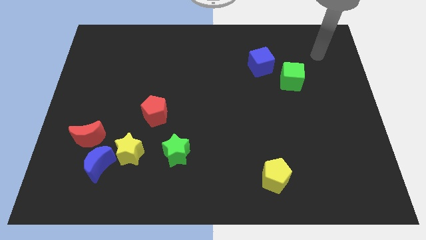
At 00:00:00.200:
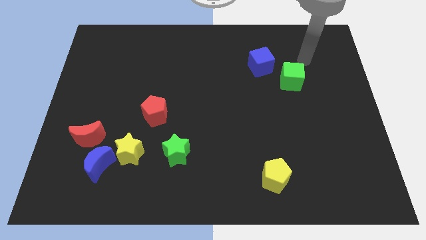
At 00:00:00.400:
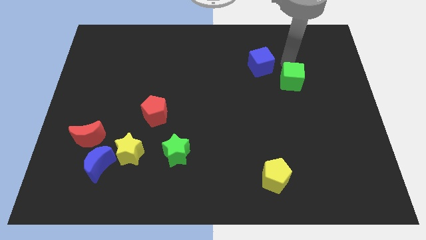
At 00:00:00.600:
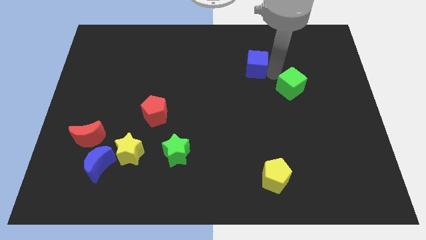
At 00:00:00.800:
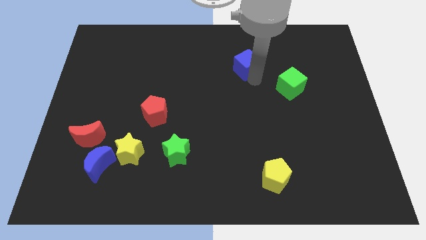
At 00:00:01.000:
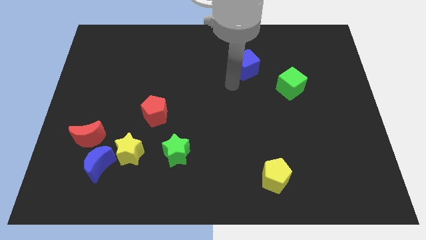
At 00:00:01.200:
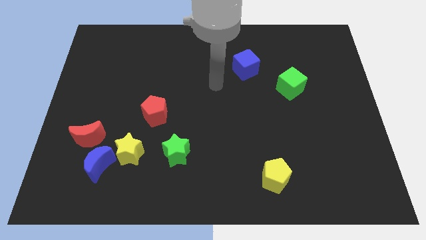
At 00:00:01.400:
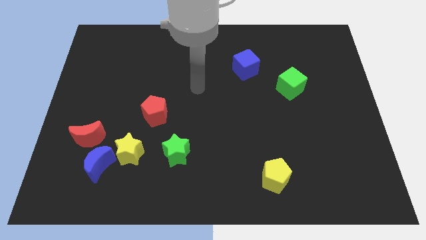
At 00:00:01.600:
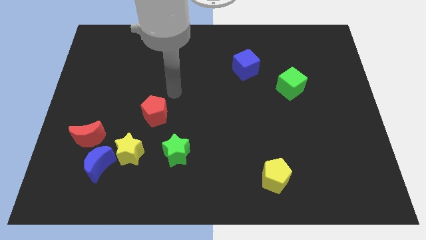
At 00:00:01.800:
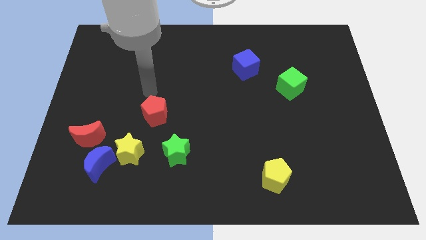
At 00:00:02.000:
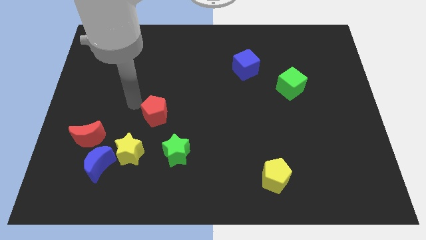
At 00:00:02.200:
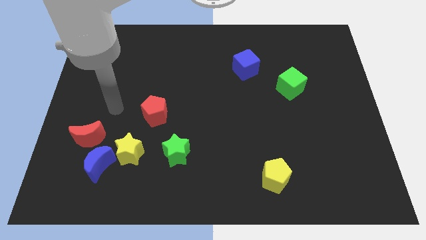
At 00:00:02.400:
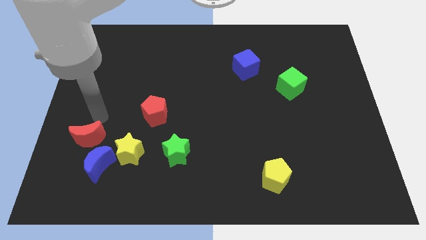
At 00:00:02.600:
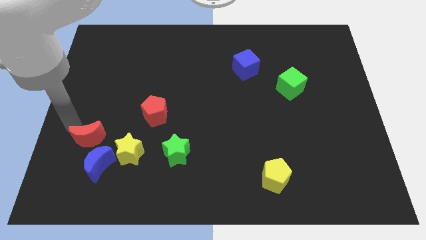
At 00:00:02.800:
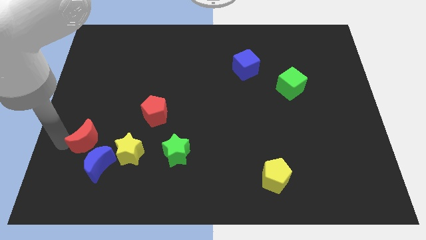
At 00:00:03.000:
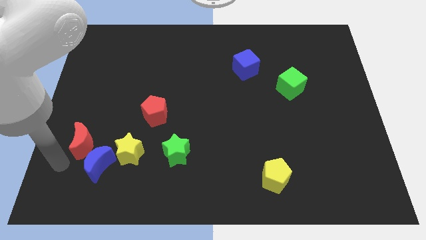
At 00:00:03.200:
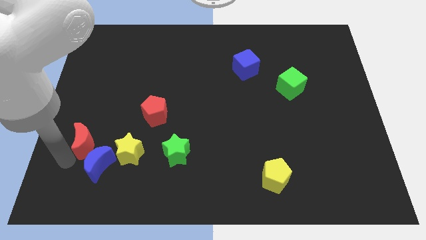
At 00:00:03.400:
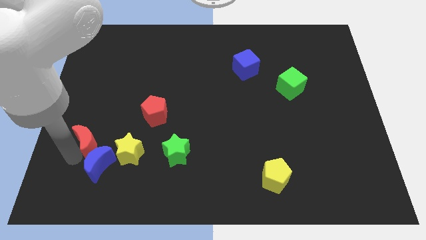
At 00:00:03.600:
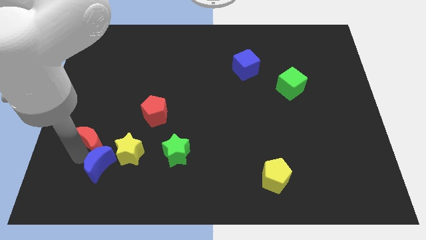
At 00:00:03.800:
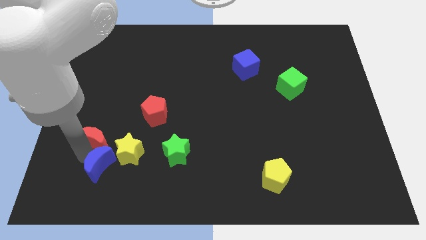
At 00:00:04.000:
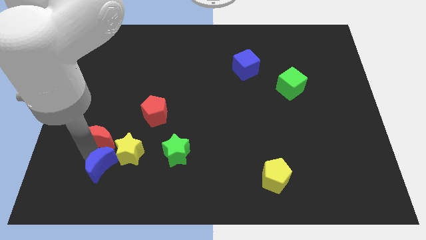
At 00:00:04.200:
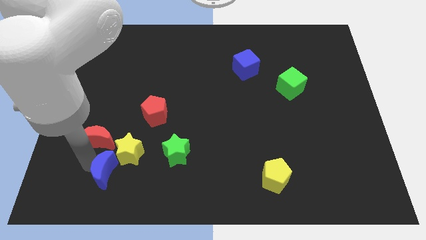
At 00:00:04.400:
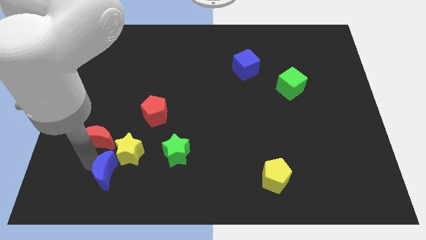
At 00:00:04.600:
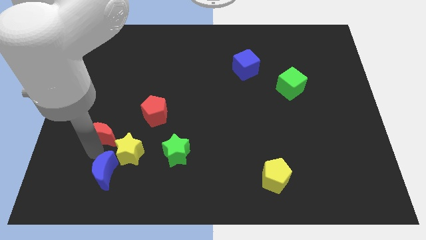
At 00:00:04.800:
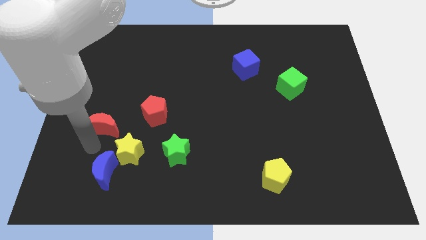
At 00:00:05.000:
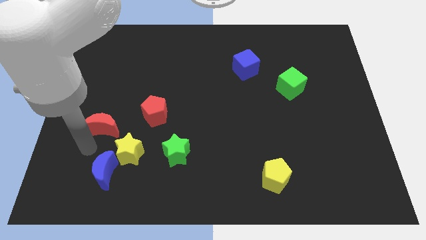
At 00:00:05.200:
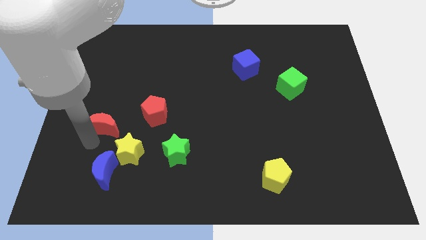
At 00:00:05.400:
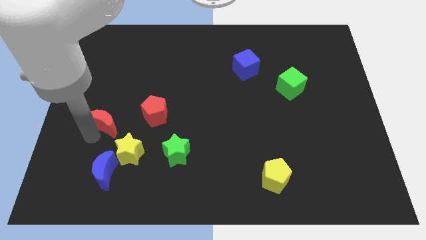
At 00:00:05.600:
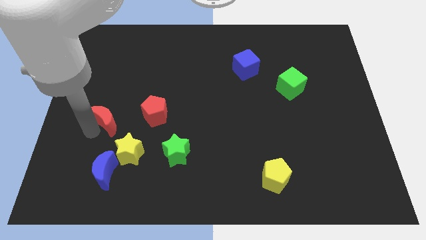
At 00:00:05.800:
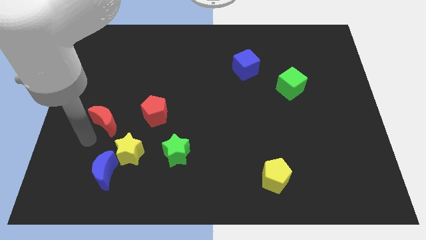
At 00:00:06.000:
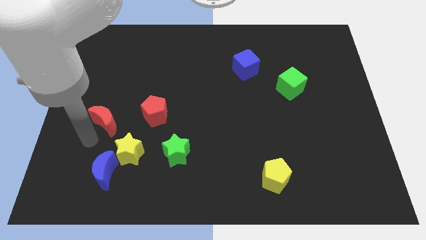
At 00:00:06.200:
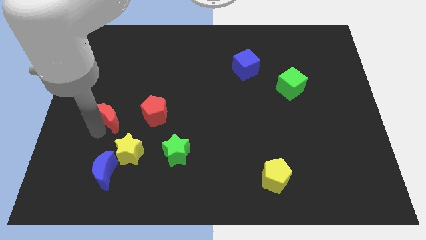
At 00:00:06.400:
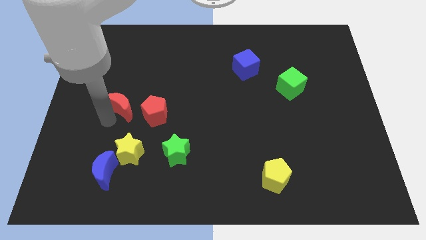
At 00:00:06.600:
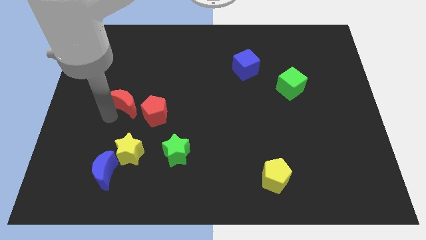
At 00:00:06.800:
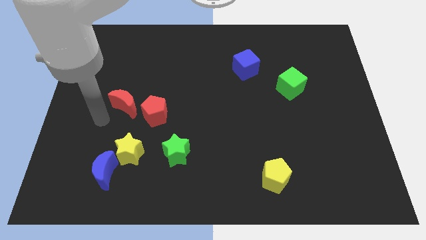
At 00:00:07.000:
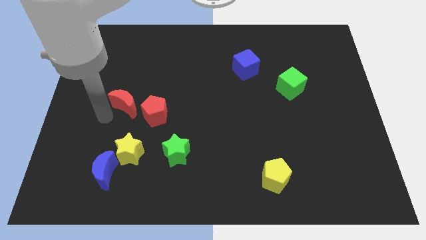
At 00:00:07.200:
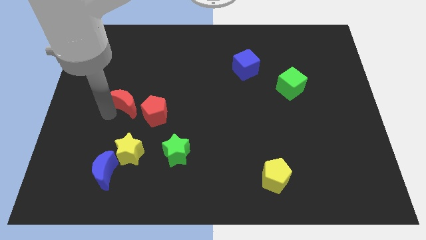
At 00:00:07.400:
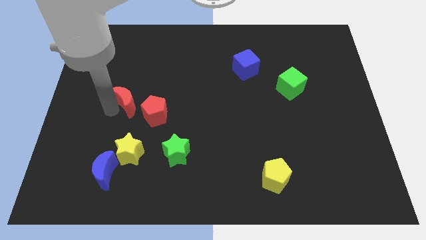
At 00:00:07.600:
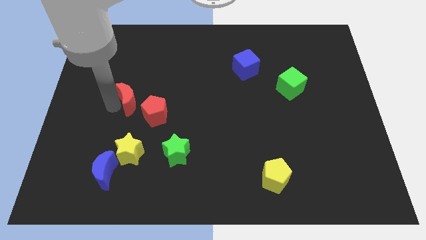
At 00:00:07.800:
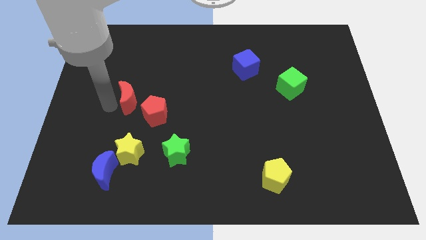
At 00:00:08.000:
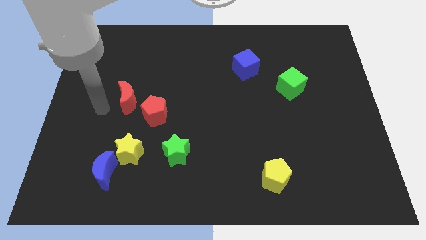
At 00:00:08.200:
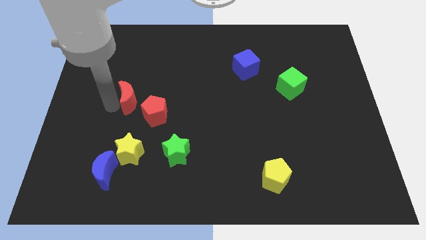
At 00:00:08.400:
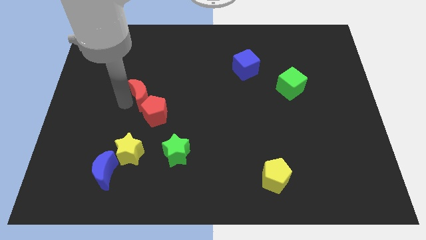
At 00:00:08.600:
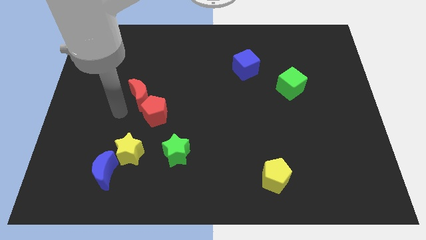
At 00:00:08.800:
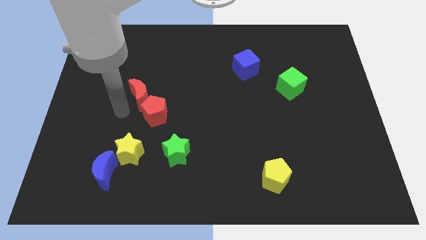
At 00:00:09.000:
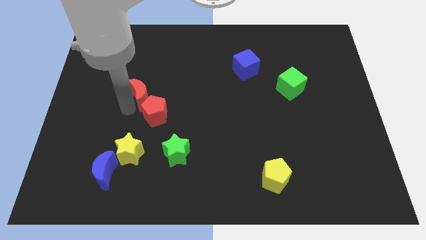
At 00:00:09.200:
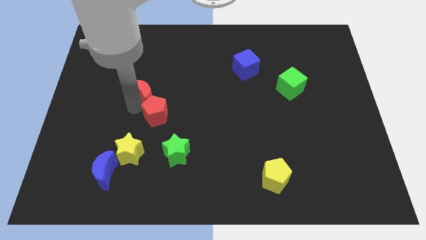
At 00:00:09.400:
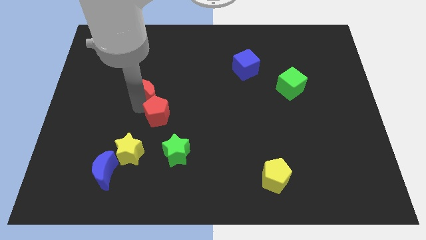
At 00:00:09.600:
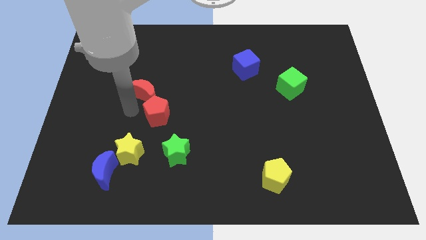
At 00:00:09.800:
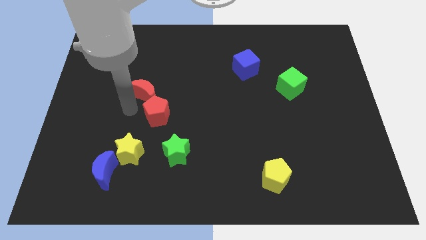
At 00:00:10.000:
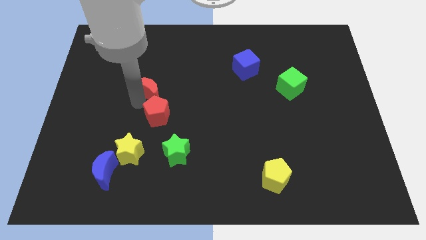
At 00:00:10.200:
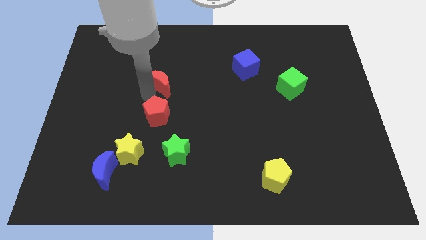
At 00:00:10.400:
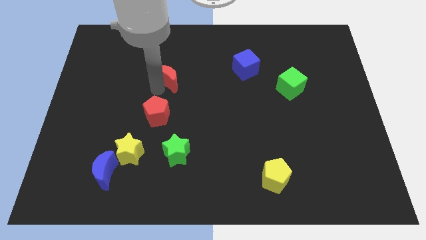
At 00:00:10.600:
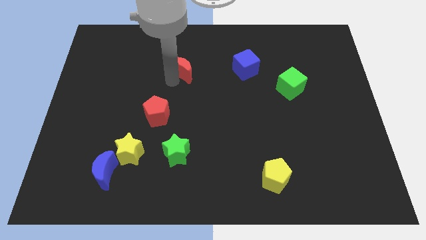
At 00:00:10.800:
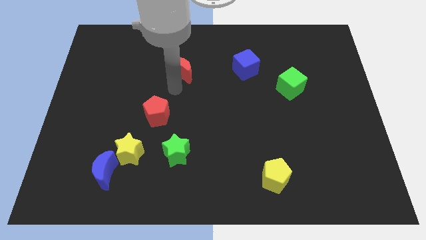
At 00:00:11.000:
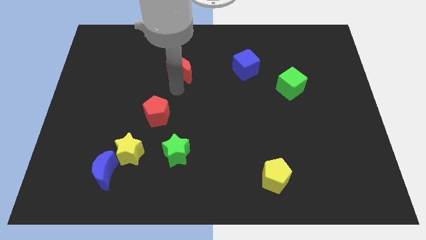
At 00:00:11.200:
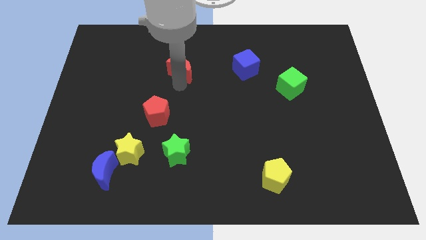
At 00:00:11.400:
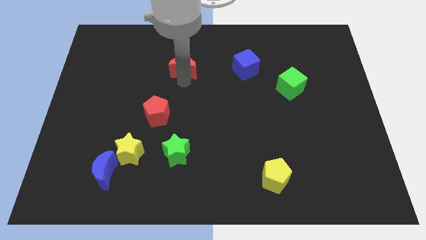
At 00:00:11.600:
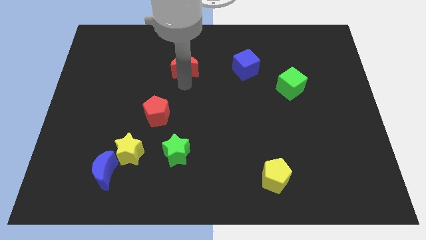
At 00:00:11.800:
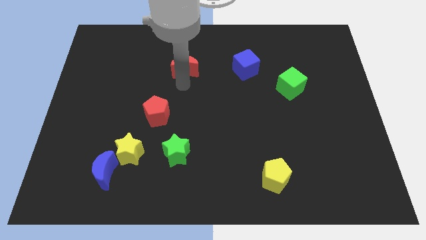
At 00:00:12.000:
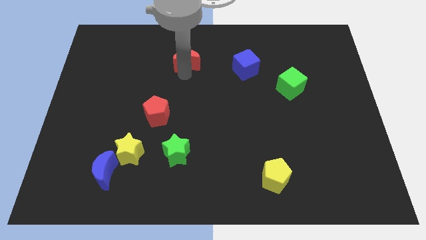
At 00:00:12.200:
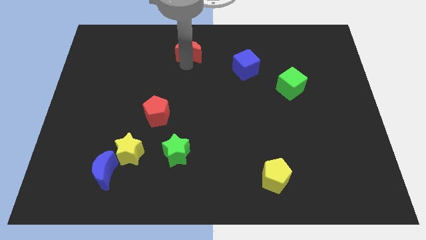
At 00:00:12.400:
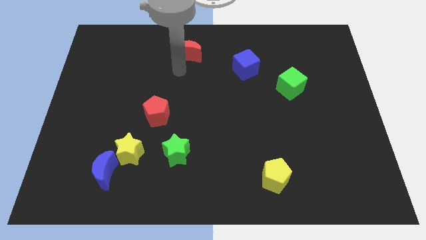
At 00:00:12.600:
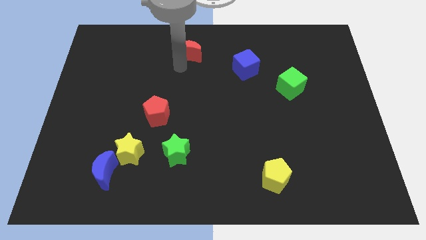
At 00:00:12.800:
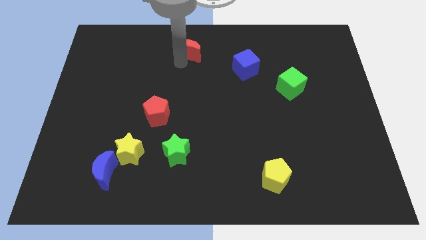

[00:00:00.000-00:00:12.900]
push the red moon to the top side

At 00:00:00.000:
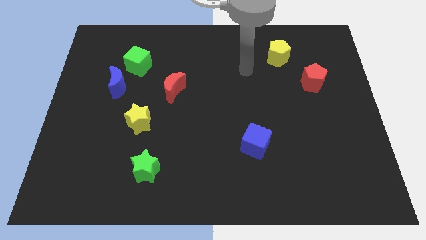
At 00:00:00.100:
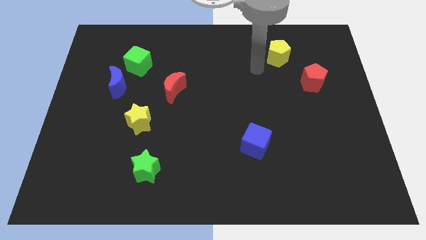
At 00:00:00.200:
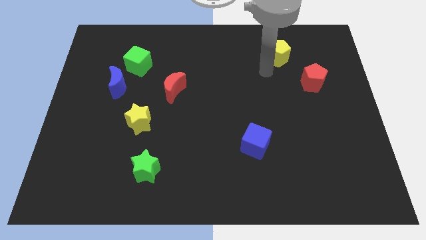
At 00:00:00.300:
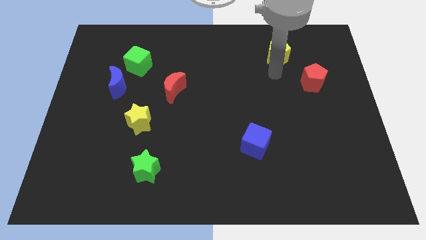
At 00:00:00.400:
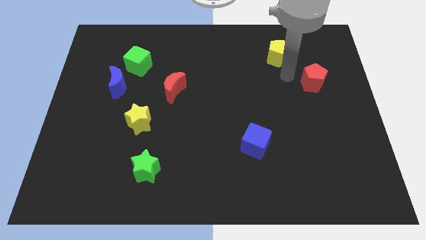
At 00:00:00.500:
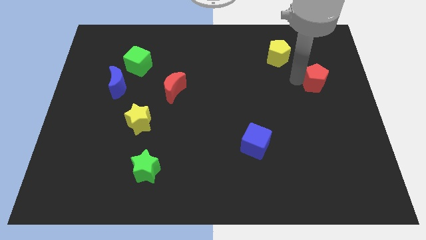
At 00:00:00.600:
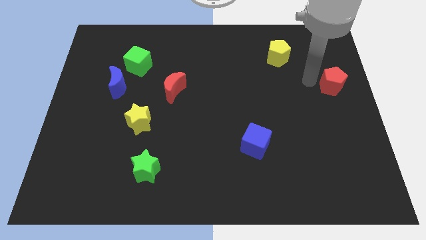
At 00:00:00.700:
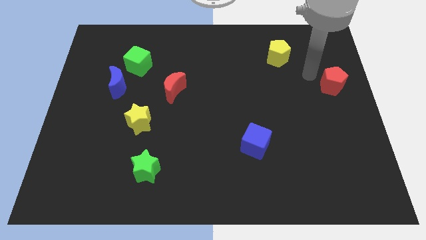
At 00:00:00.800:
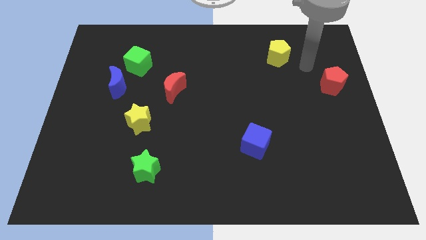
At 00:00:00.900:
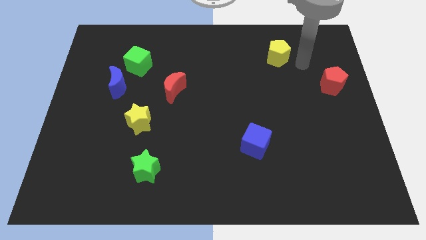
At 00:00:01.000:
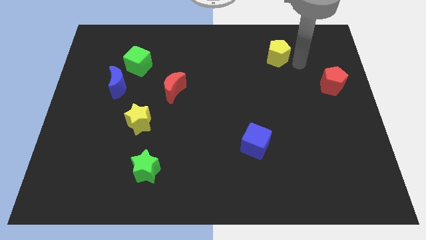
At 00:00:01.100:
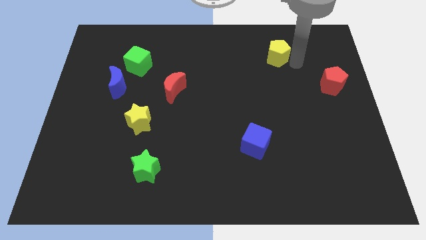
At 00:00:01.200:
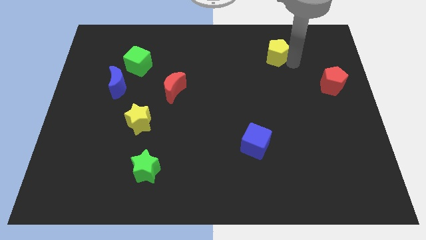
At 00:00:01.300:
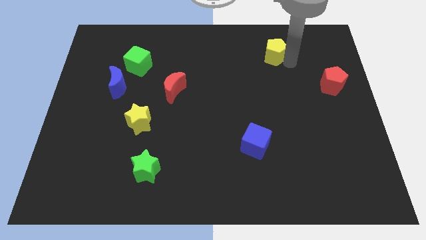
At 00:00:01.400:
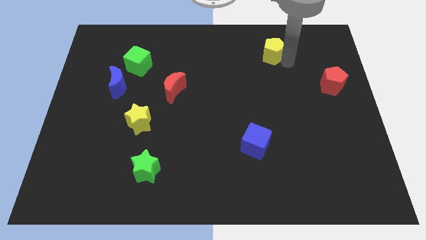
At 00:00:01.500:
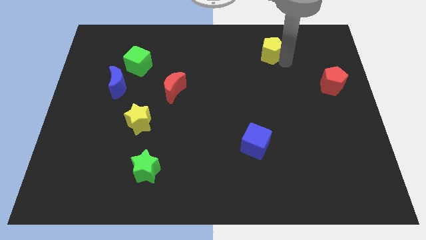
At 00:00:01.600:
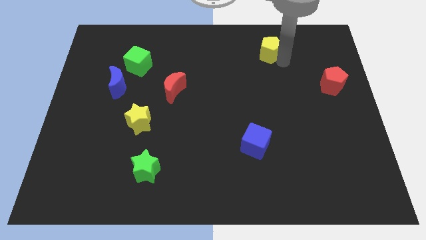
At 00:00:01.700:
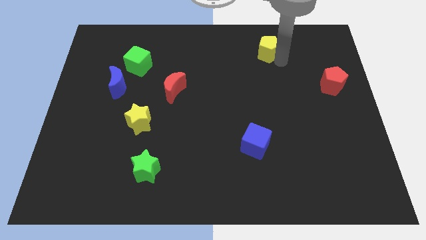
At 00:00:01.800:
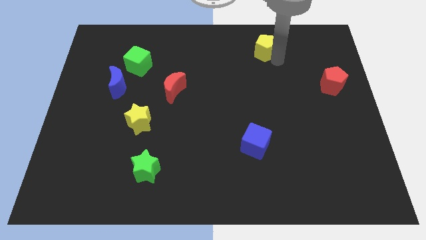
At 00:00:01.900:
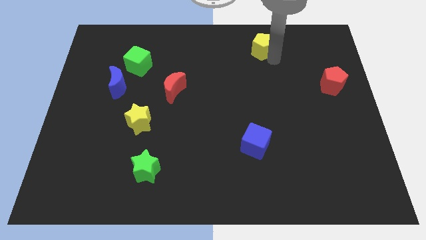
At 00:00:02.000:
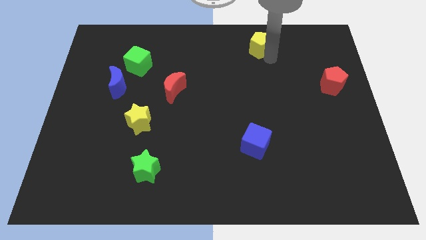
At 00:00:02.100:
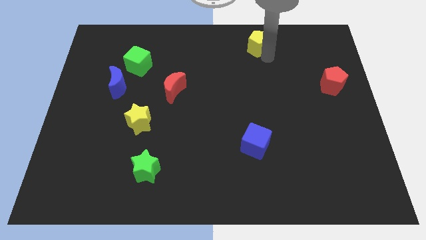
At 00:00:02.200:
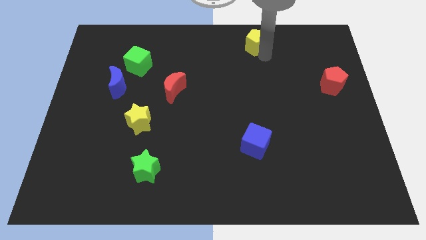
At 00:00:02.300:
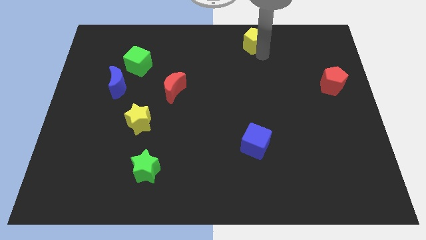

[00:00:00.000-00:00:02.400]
move the yellow pentagon to the towards your base
